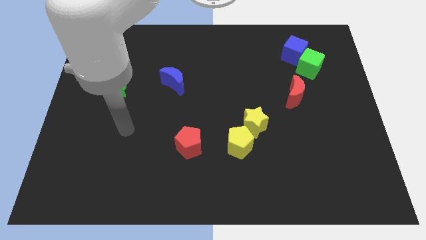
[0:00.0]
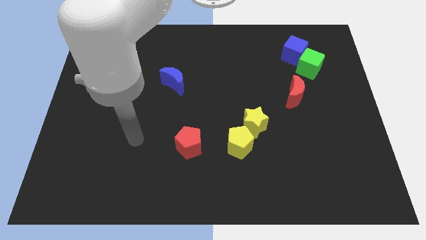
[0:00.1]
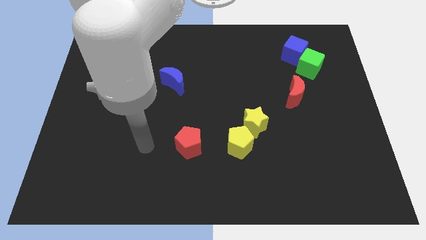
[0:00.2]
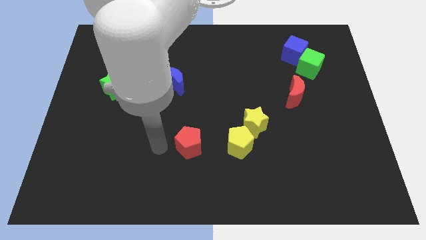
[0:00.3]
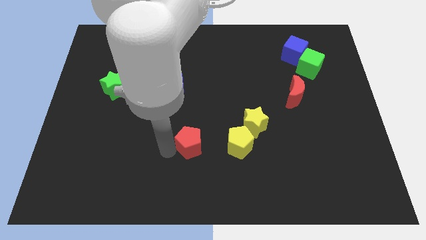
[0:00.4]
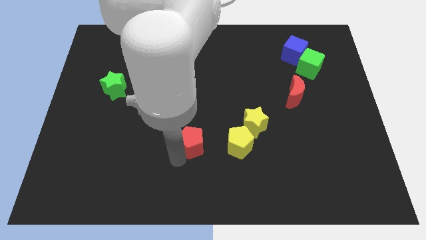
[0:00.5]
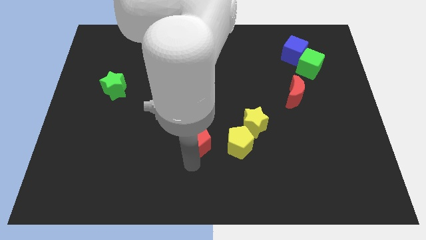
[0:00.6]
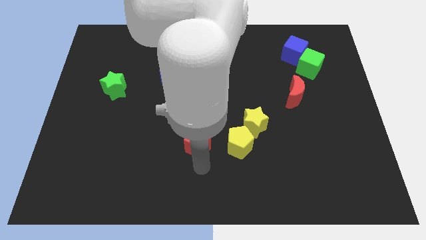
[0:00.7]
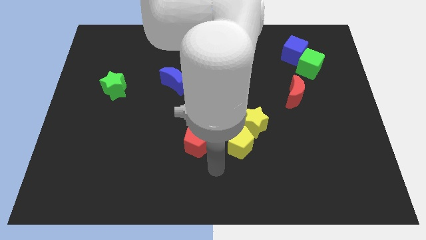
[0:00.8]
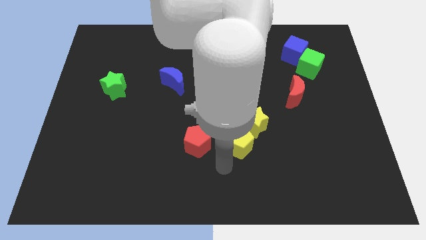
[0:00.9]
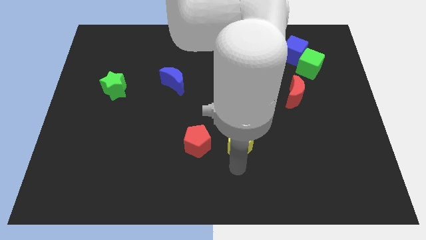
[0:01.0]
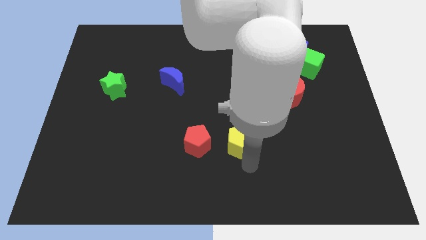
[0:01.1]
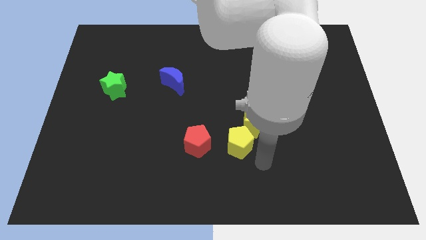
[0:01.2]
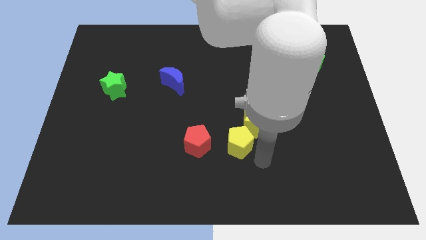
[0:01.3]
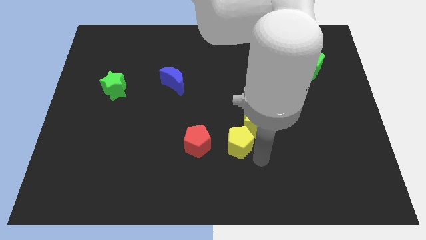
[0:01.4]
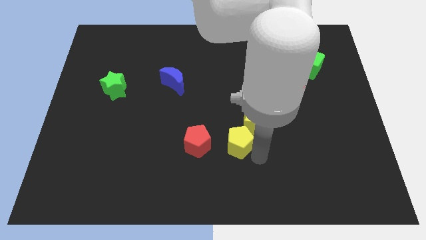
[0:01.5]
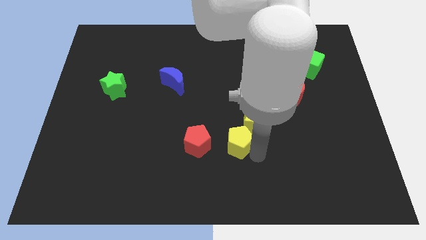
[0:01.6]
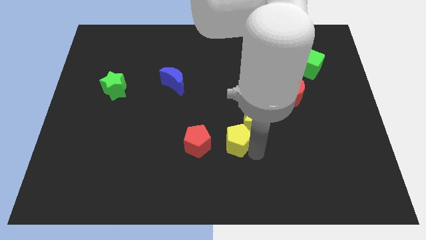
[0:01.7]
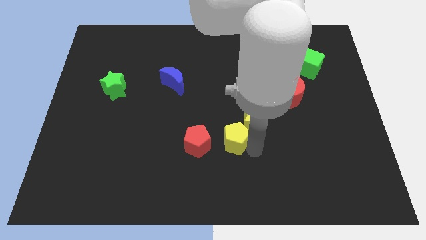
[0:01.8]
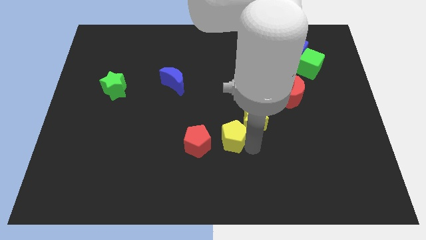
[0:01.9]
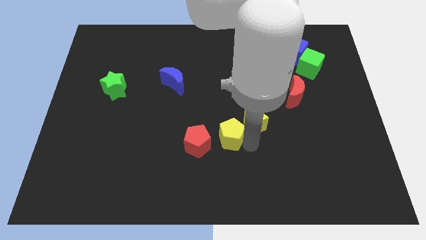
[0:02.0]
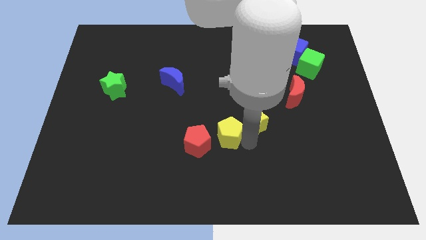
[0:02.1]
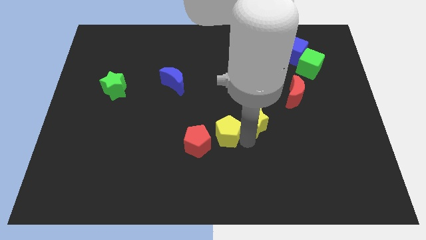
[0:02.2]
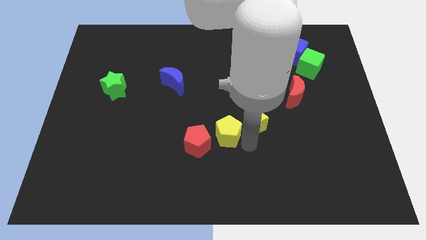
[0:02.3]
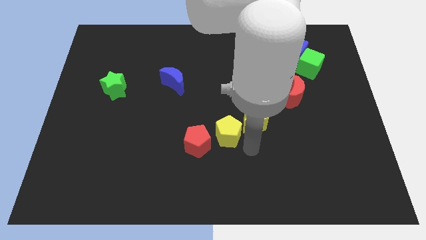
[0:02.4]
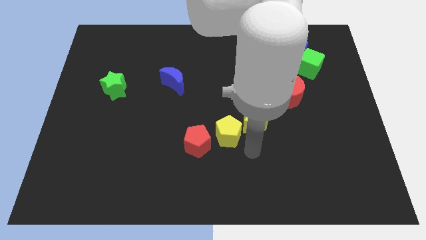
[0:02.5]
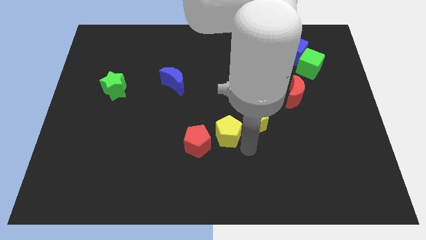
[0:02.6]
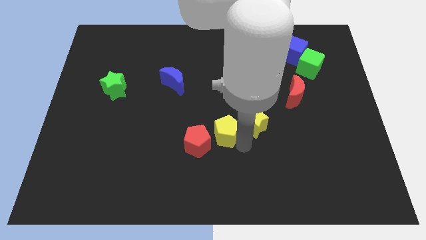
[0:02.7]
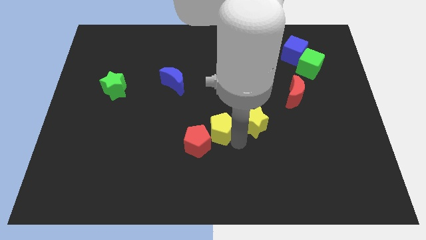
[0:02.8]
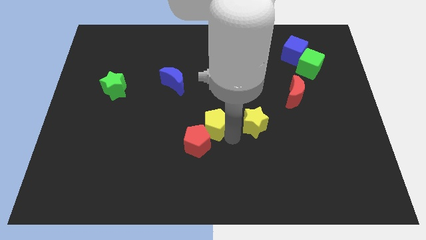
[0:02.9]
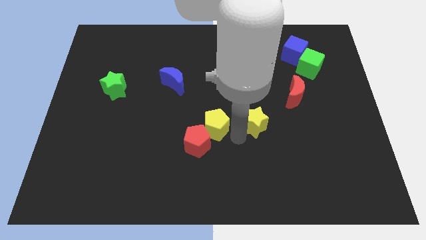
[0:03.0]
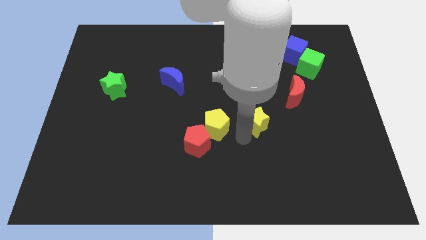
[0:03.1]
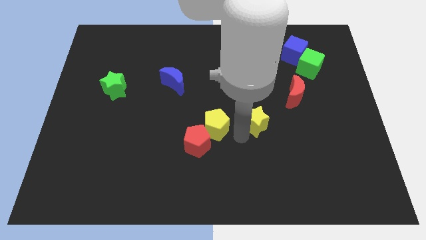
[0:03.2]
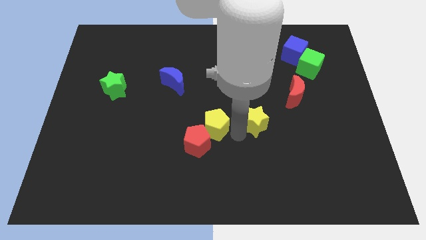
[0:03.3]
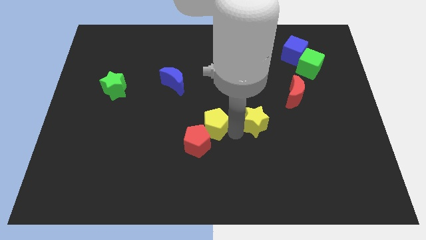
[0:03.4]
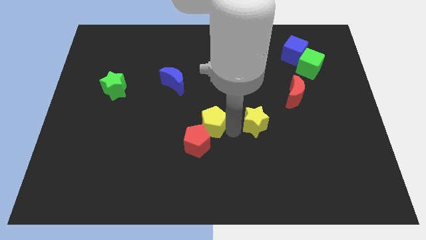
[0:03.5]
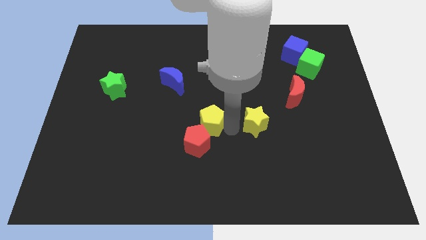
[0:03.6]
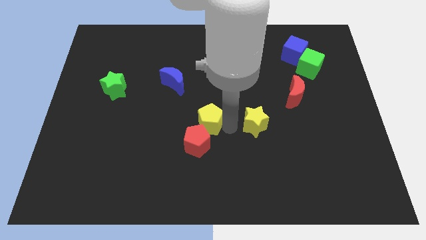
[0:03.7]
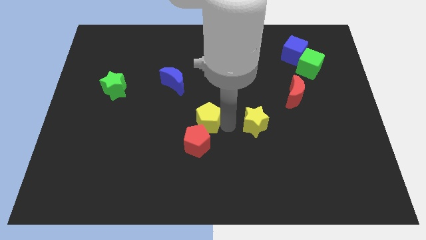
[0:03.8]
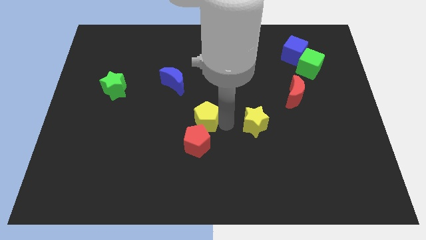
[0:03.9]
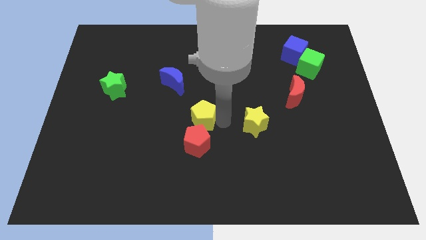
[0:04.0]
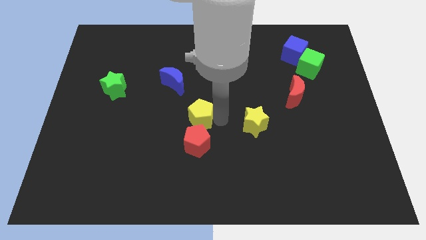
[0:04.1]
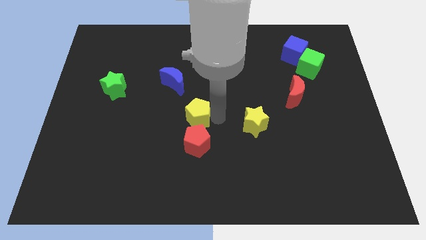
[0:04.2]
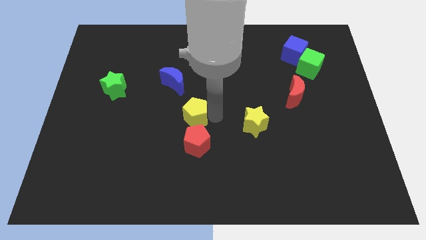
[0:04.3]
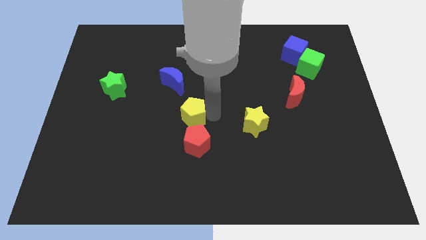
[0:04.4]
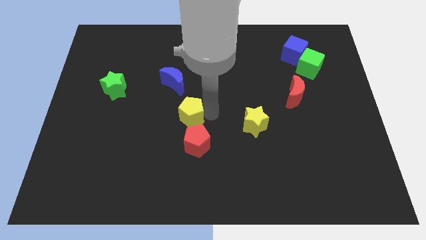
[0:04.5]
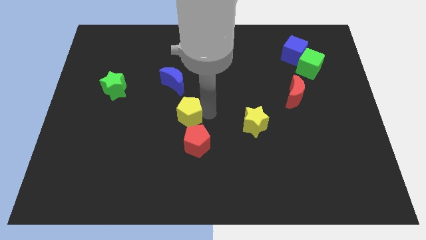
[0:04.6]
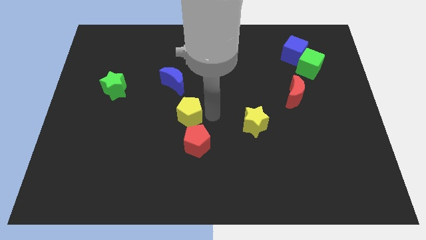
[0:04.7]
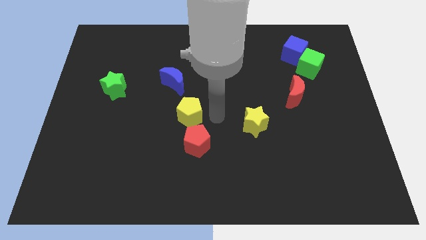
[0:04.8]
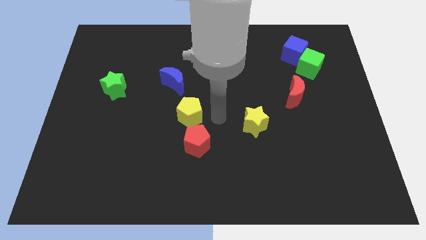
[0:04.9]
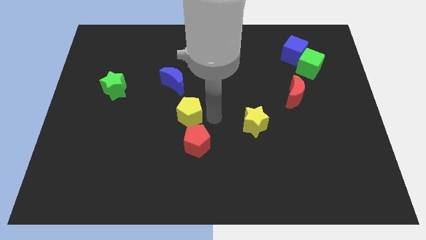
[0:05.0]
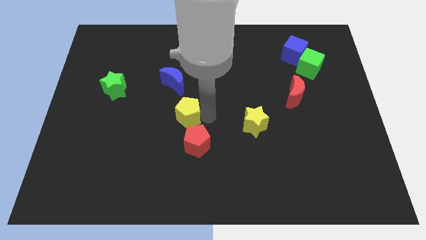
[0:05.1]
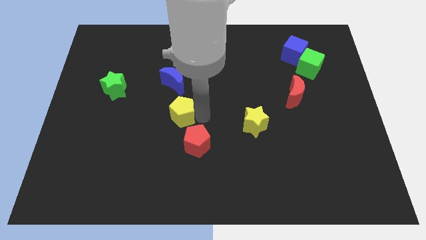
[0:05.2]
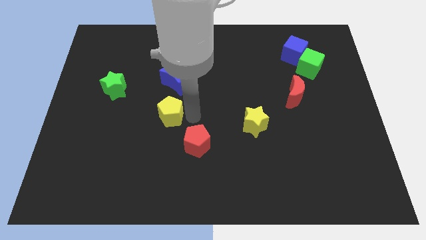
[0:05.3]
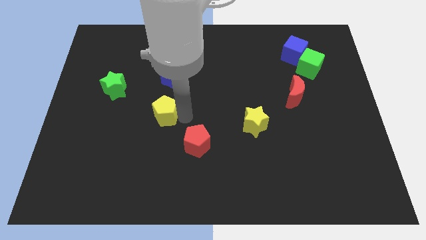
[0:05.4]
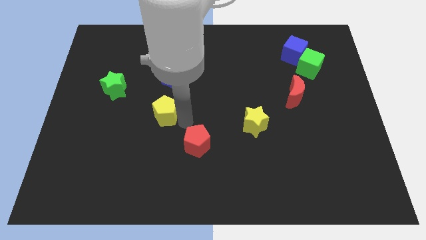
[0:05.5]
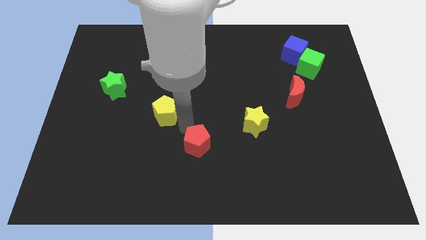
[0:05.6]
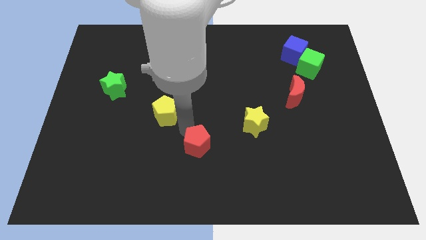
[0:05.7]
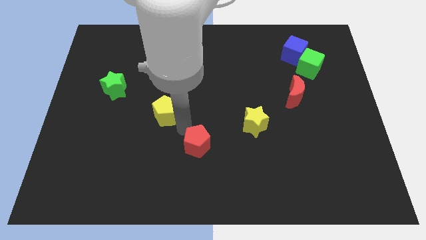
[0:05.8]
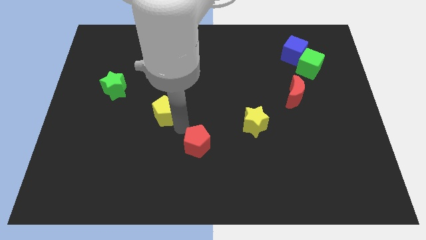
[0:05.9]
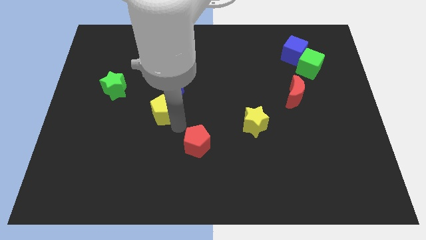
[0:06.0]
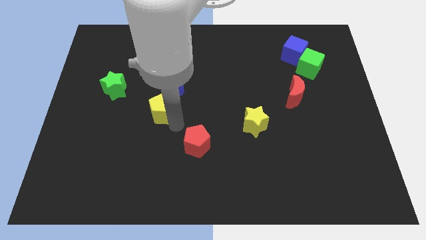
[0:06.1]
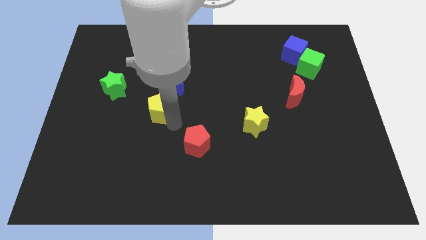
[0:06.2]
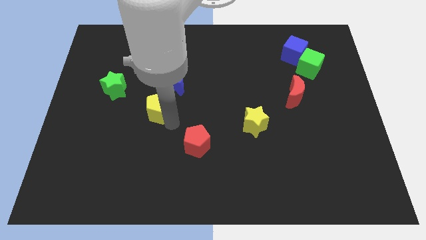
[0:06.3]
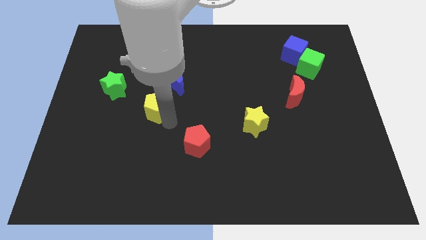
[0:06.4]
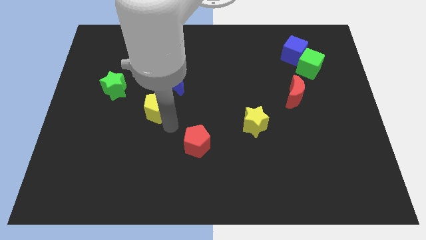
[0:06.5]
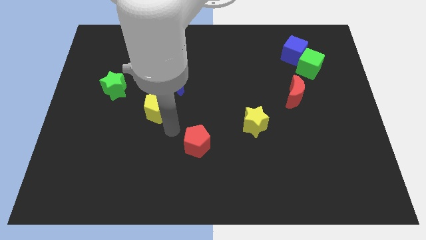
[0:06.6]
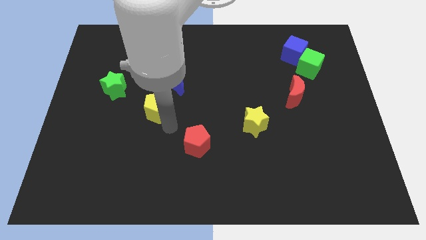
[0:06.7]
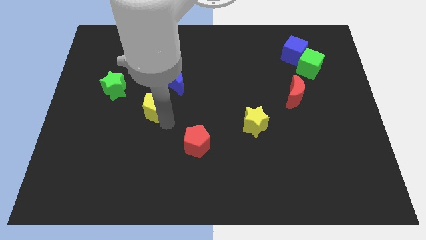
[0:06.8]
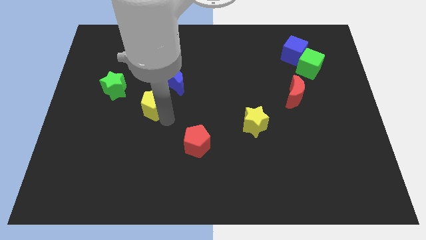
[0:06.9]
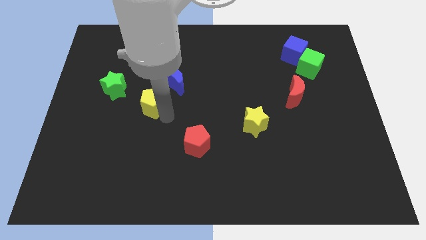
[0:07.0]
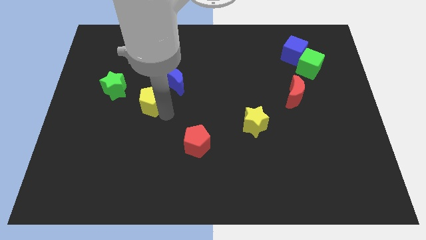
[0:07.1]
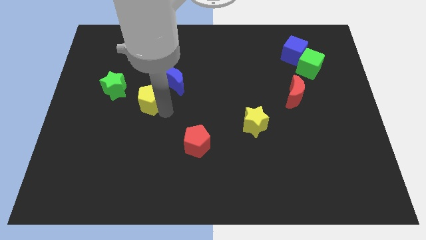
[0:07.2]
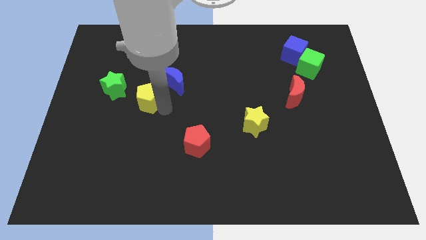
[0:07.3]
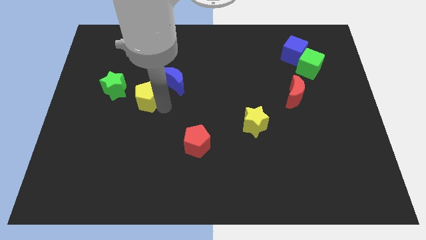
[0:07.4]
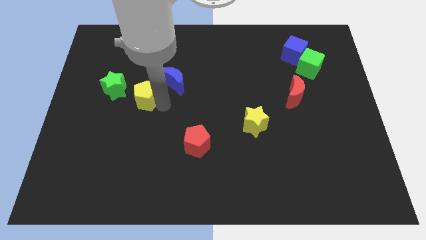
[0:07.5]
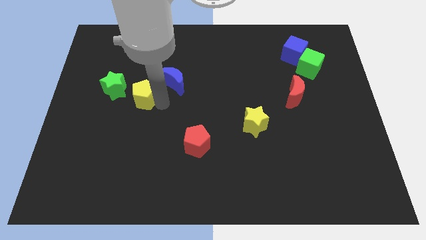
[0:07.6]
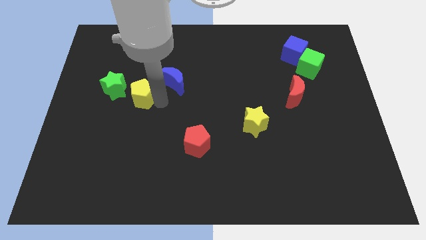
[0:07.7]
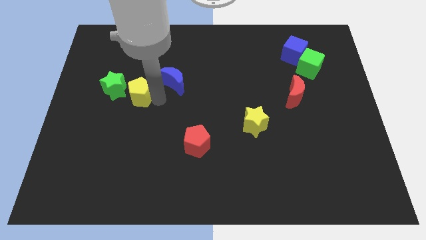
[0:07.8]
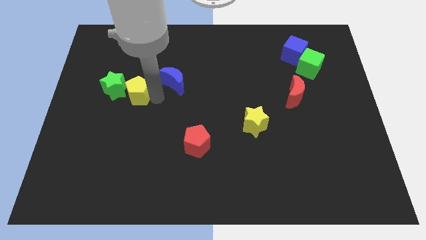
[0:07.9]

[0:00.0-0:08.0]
put the yellow pentagon next to the green star

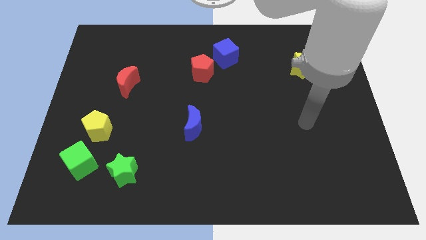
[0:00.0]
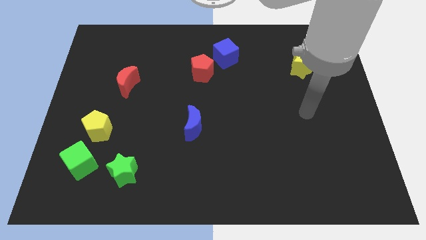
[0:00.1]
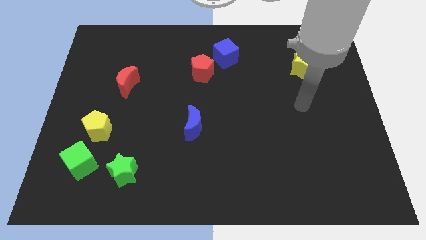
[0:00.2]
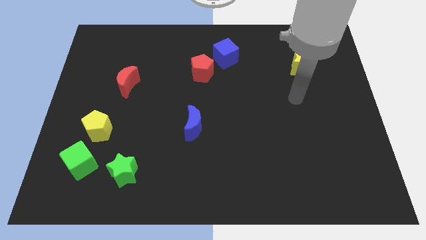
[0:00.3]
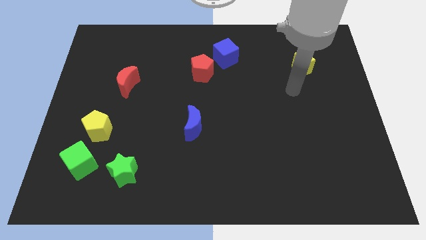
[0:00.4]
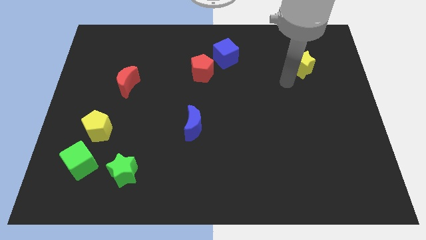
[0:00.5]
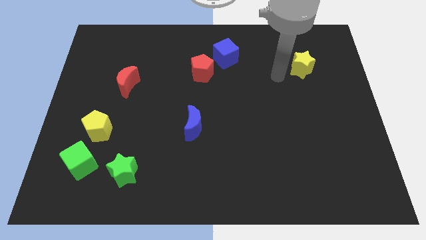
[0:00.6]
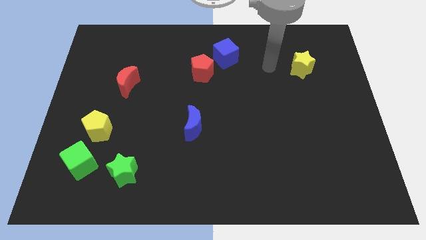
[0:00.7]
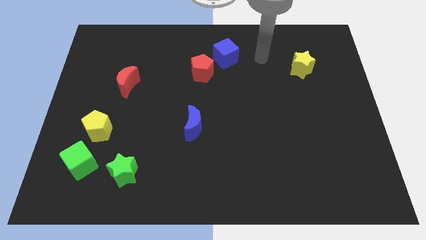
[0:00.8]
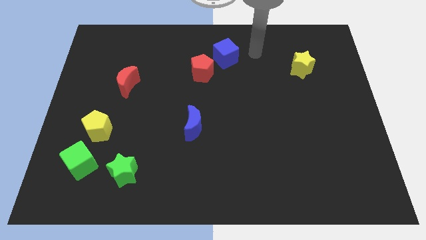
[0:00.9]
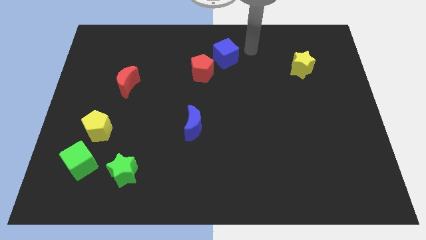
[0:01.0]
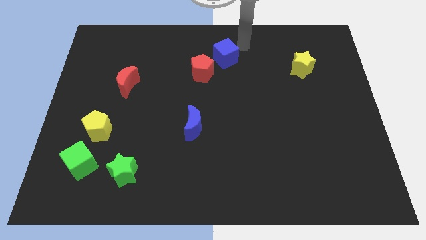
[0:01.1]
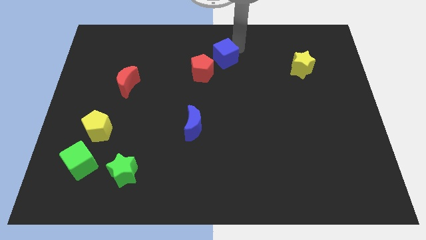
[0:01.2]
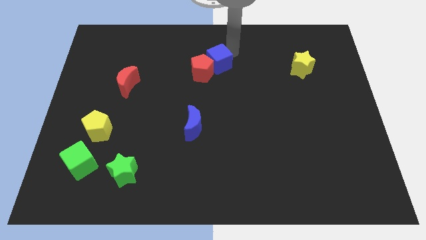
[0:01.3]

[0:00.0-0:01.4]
put the blue cube to the red pentagon
